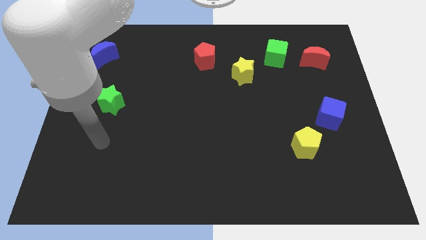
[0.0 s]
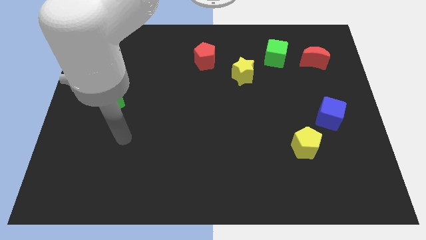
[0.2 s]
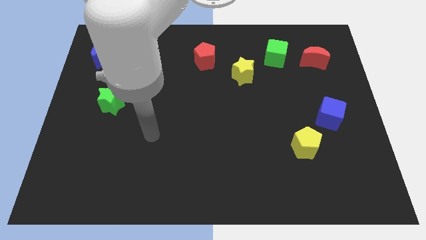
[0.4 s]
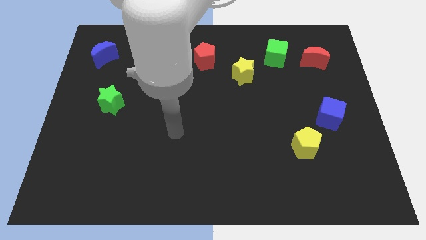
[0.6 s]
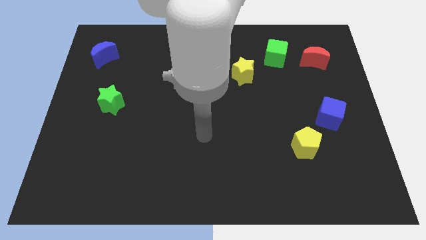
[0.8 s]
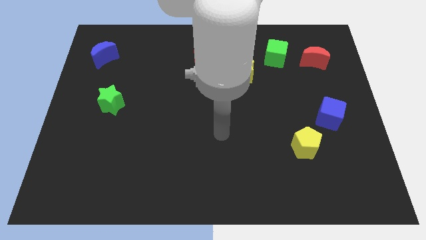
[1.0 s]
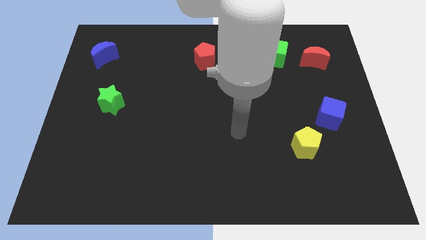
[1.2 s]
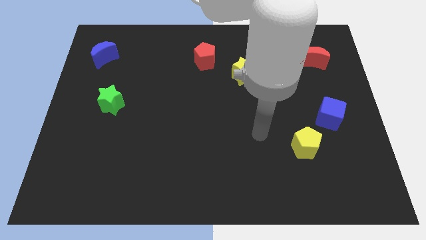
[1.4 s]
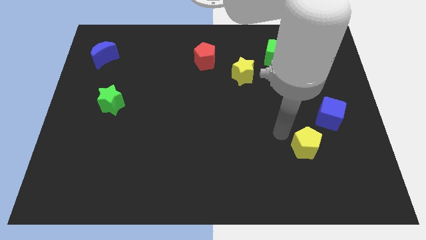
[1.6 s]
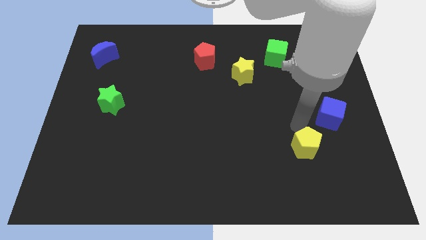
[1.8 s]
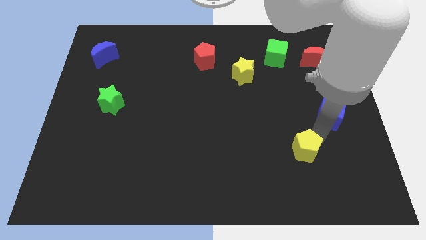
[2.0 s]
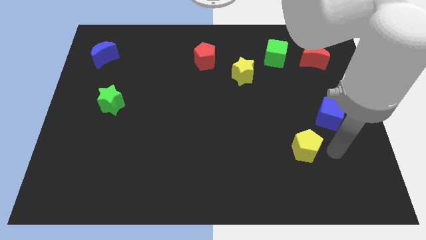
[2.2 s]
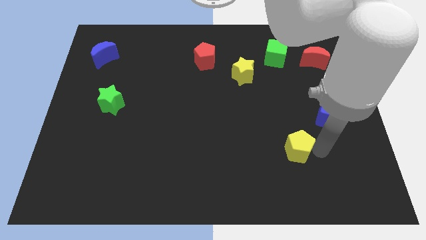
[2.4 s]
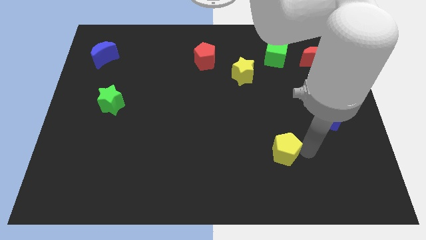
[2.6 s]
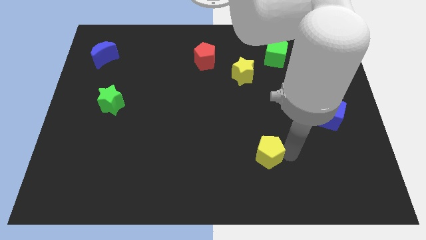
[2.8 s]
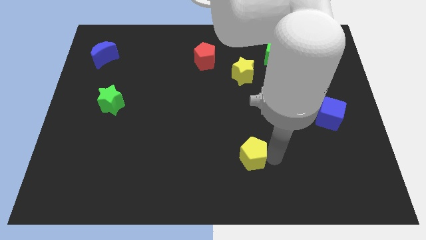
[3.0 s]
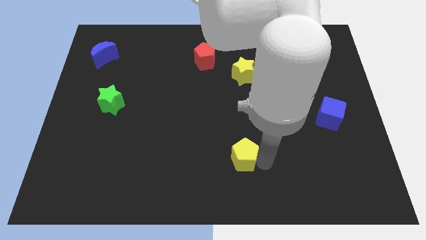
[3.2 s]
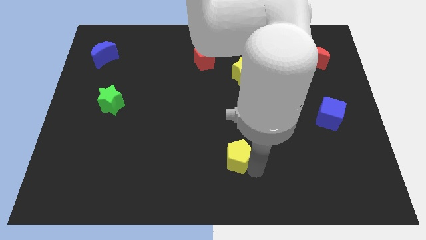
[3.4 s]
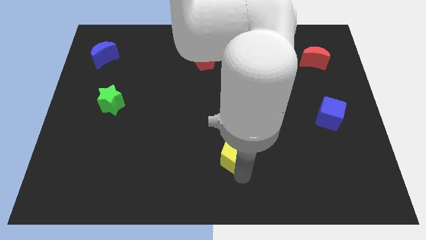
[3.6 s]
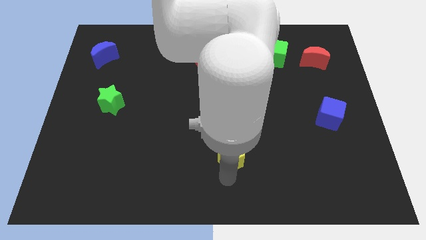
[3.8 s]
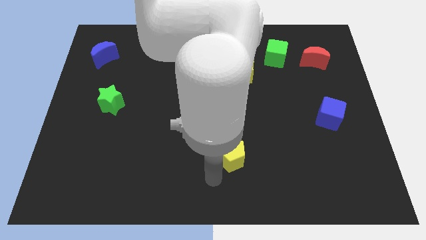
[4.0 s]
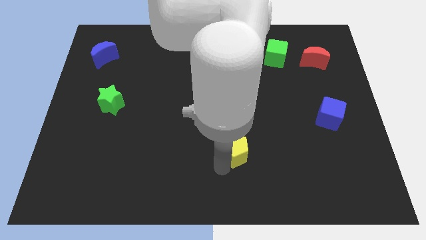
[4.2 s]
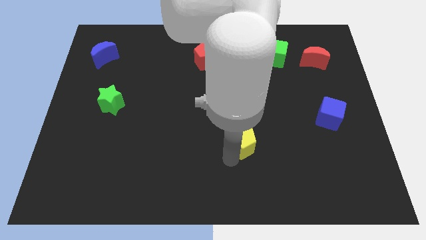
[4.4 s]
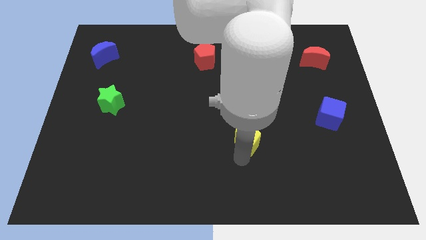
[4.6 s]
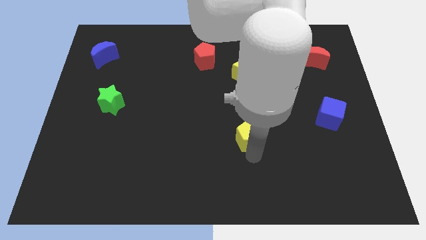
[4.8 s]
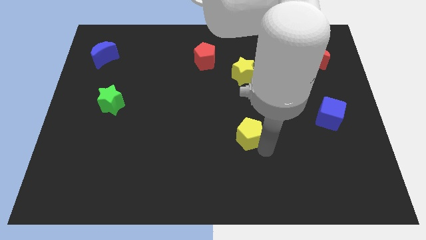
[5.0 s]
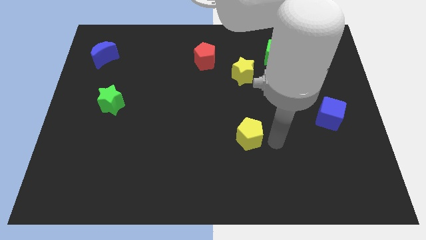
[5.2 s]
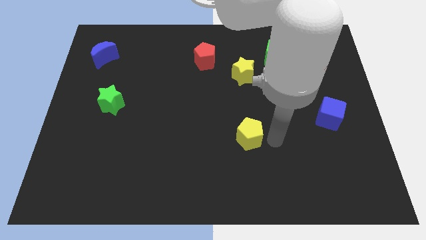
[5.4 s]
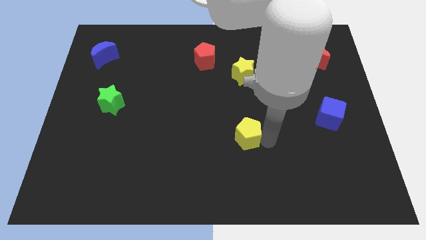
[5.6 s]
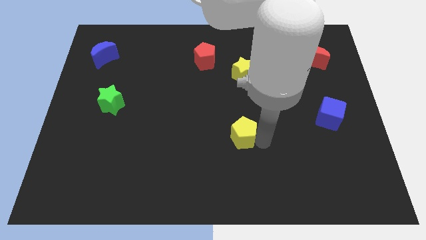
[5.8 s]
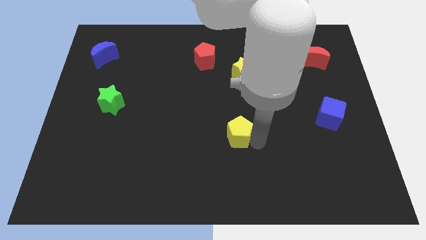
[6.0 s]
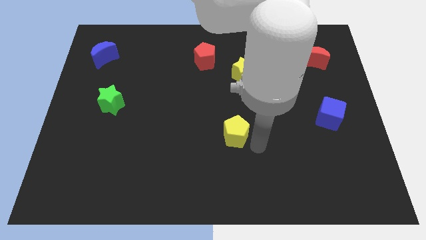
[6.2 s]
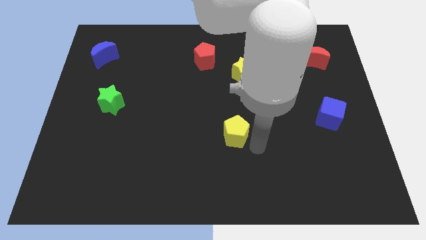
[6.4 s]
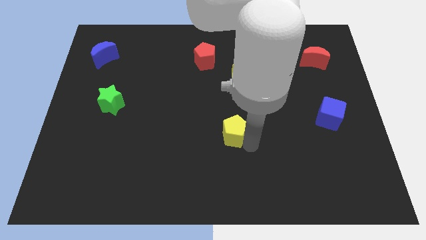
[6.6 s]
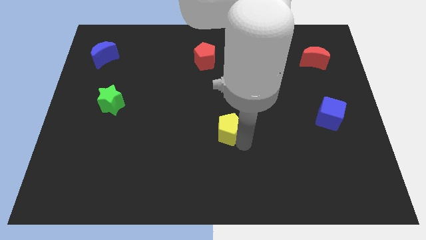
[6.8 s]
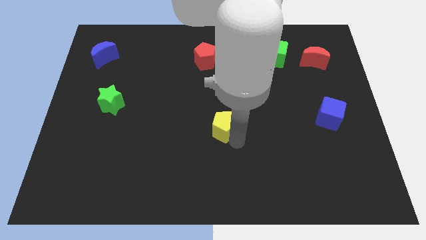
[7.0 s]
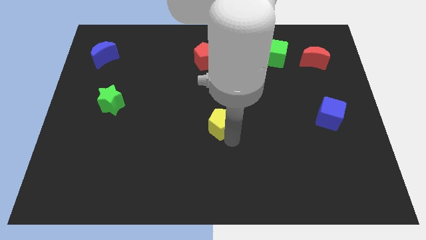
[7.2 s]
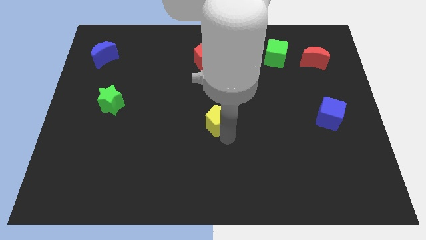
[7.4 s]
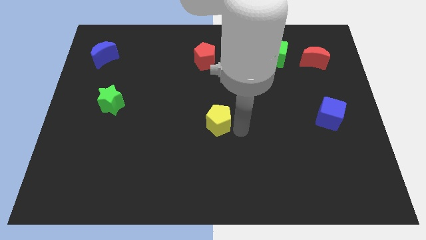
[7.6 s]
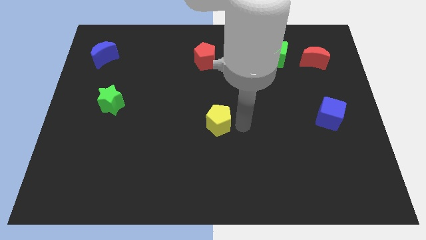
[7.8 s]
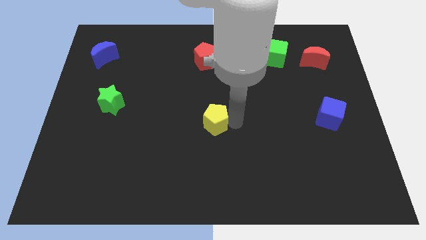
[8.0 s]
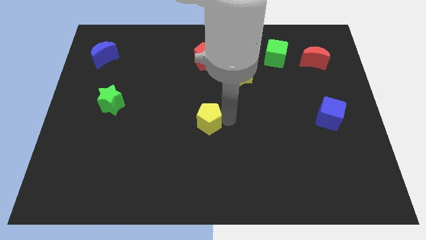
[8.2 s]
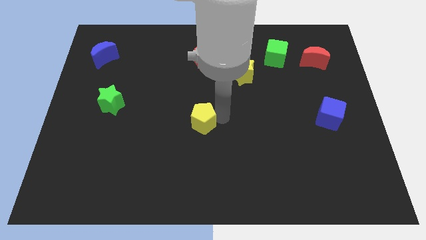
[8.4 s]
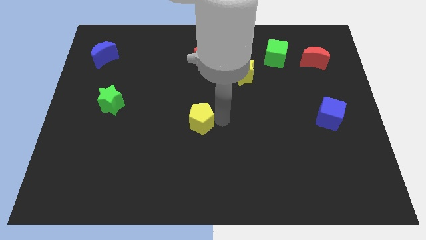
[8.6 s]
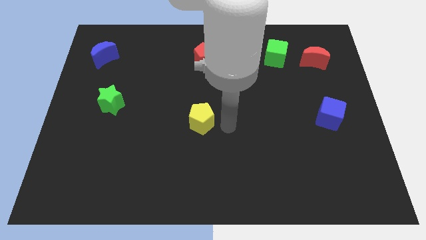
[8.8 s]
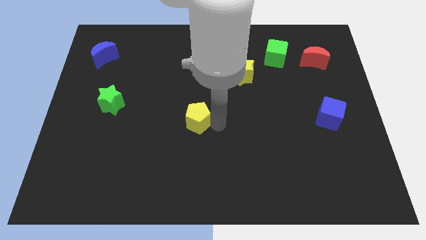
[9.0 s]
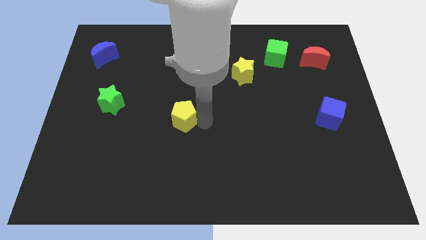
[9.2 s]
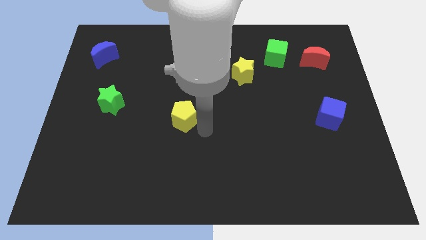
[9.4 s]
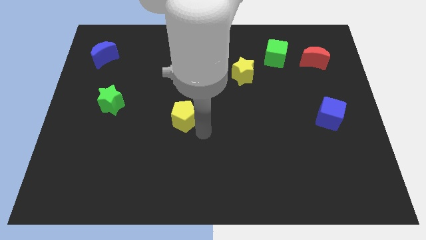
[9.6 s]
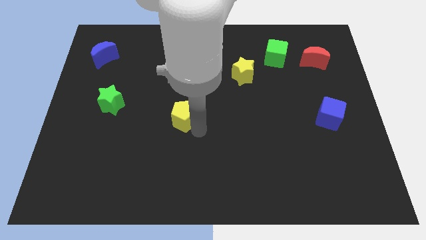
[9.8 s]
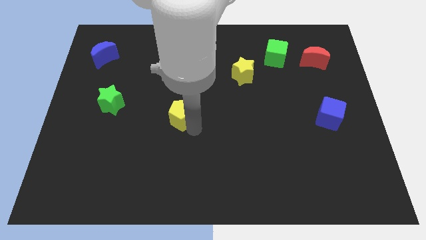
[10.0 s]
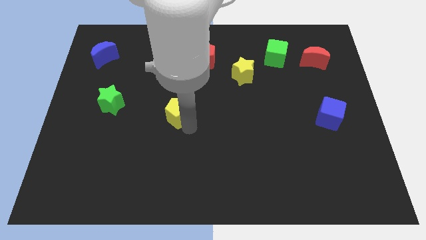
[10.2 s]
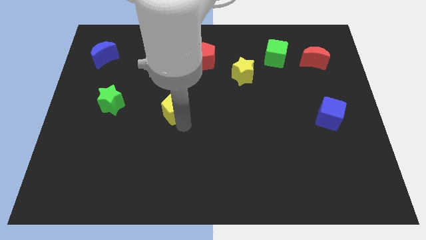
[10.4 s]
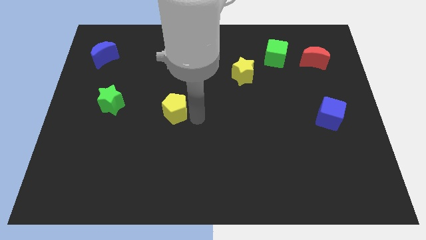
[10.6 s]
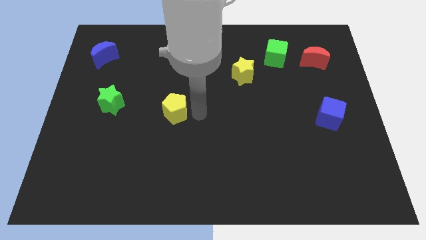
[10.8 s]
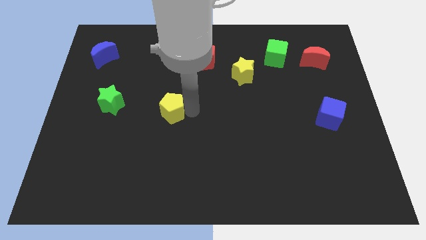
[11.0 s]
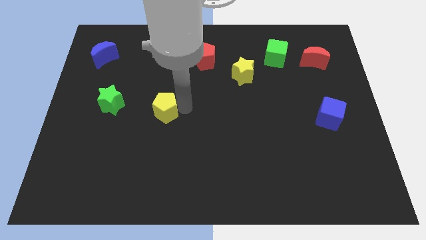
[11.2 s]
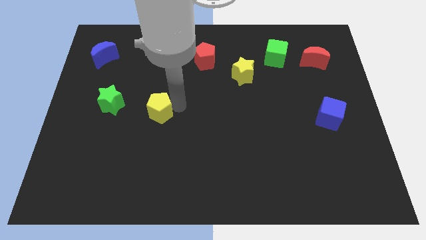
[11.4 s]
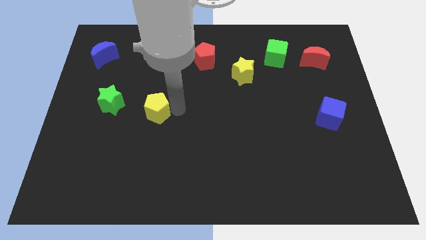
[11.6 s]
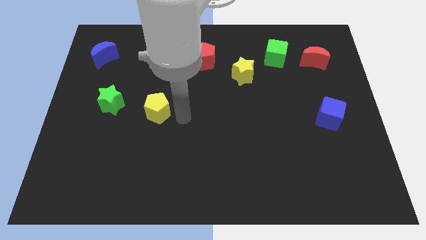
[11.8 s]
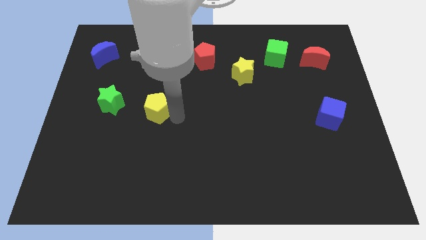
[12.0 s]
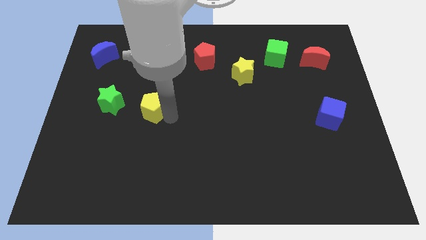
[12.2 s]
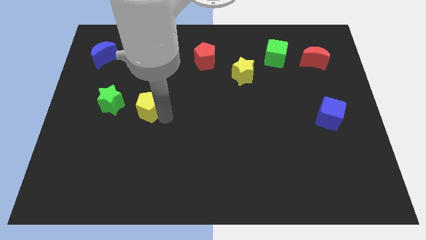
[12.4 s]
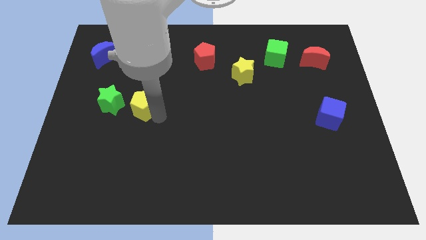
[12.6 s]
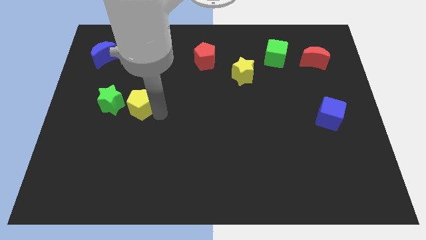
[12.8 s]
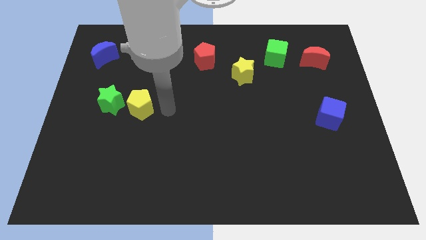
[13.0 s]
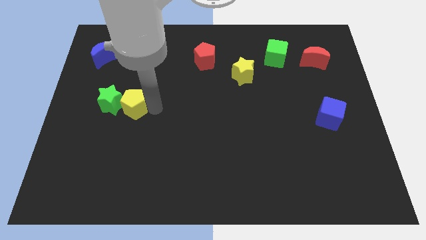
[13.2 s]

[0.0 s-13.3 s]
push the yellow pentagon next to the green star

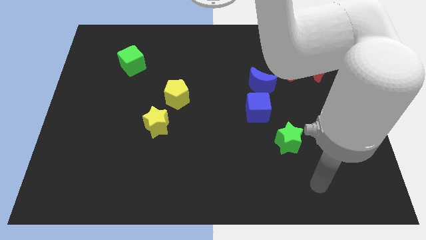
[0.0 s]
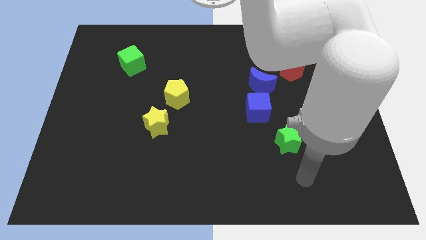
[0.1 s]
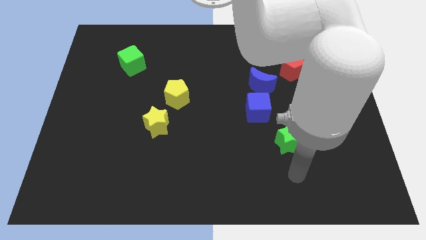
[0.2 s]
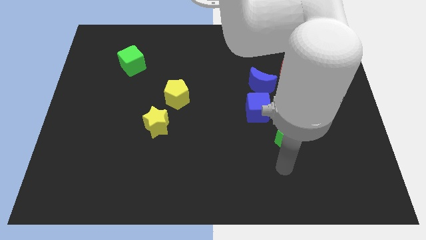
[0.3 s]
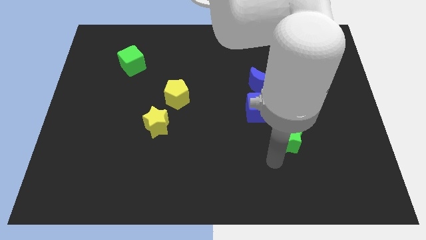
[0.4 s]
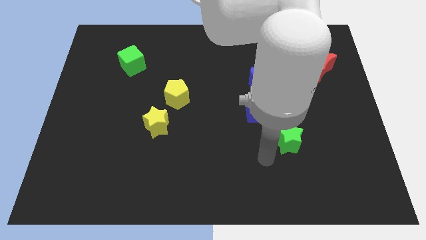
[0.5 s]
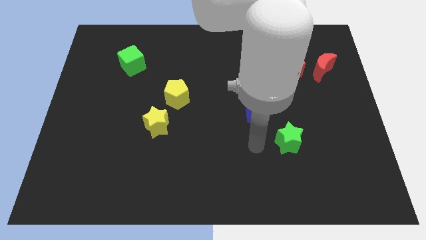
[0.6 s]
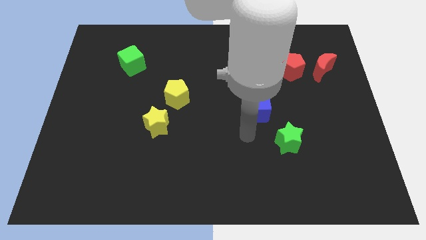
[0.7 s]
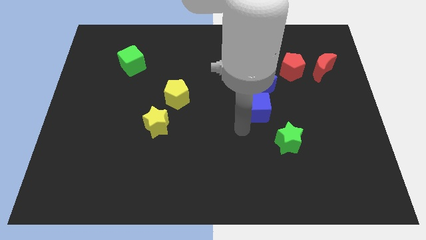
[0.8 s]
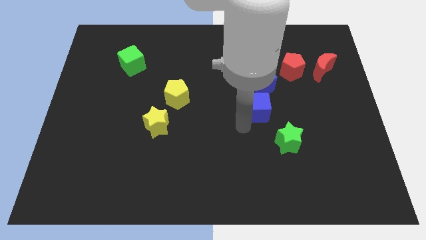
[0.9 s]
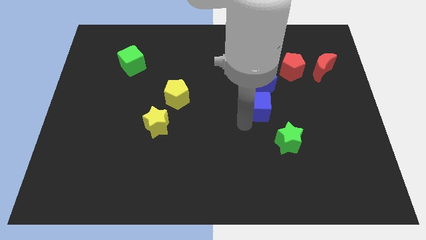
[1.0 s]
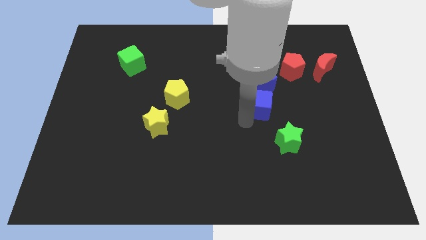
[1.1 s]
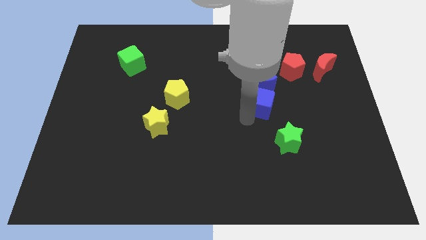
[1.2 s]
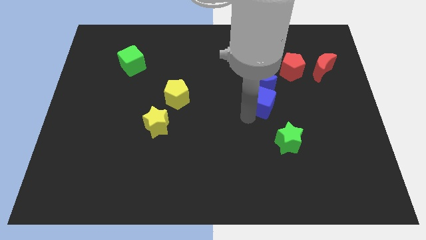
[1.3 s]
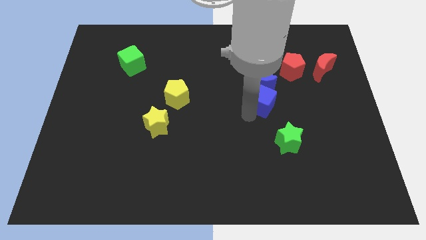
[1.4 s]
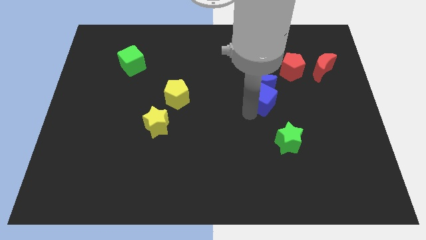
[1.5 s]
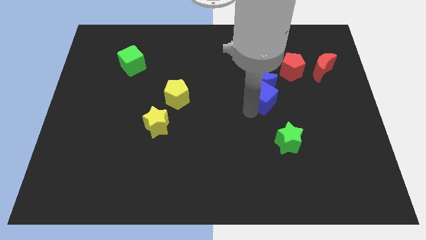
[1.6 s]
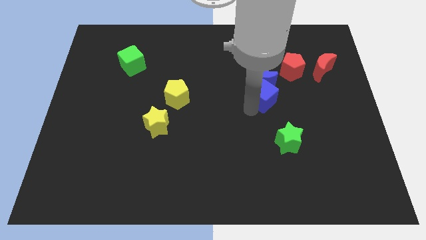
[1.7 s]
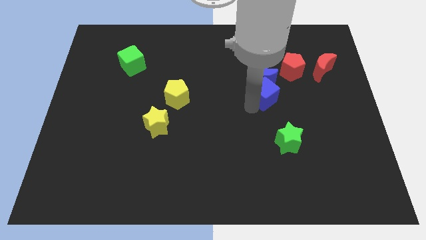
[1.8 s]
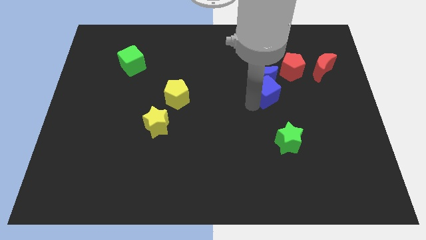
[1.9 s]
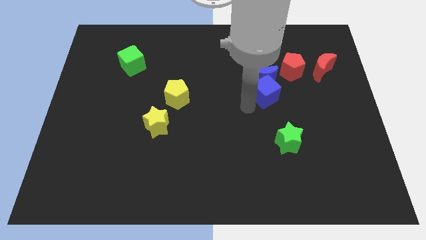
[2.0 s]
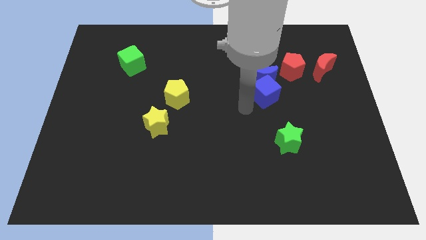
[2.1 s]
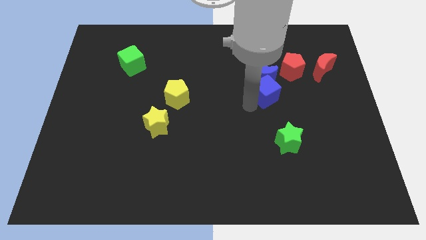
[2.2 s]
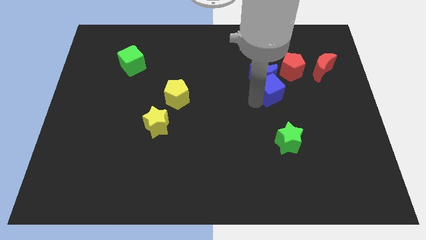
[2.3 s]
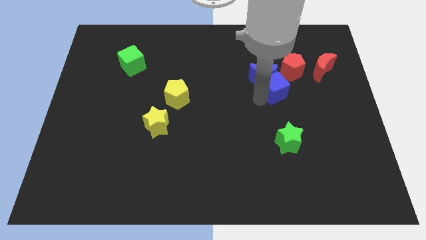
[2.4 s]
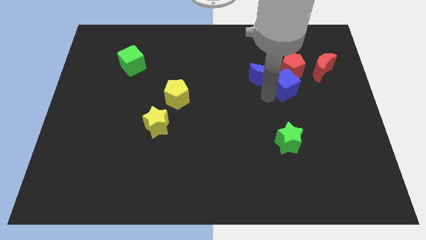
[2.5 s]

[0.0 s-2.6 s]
move the blue cube towards the red pentagon
